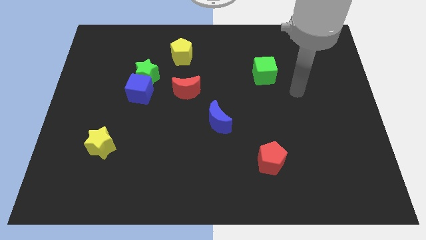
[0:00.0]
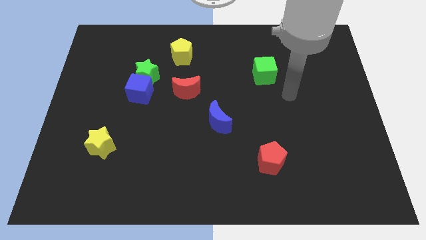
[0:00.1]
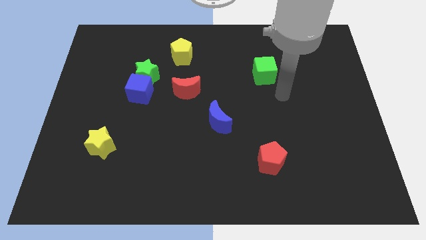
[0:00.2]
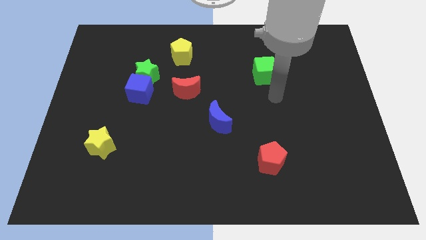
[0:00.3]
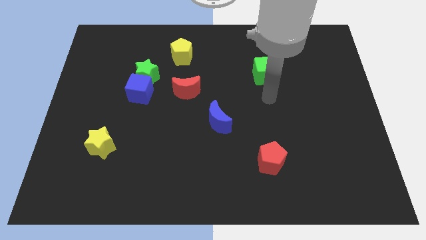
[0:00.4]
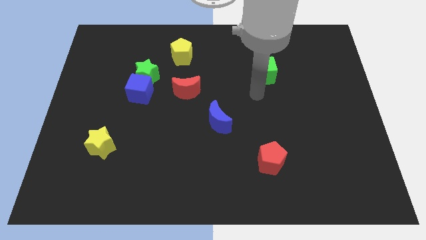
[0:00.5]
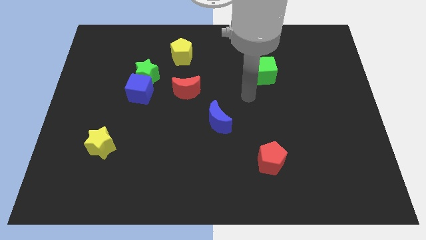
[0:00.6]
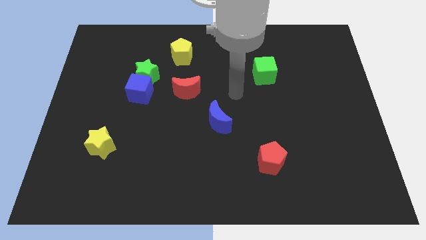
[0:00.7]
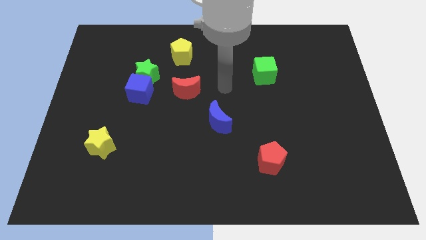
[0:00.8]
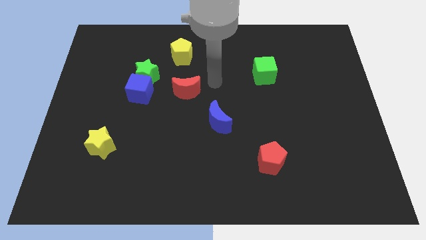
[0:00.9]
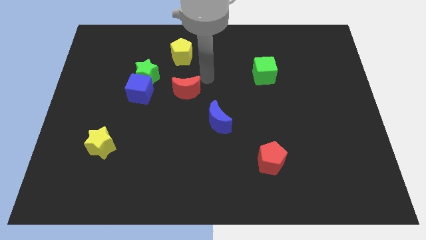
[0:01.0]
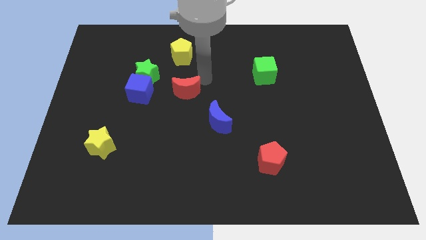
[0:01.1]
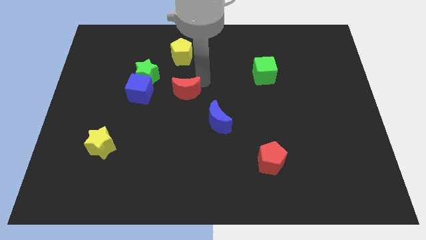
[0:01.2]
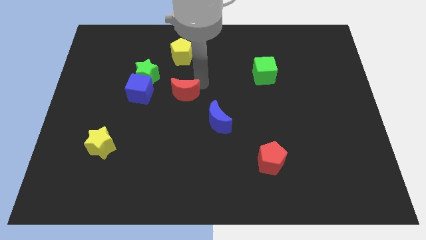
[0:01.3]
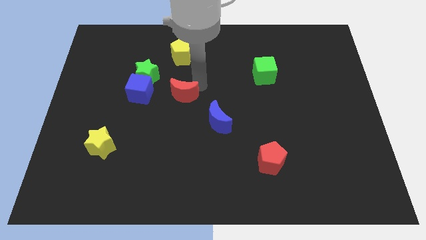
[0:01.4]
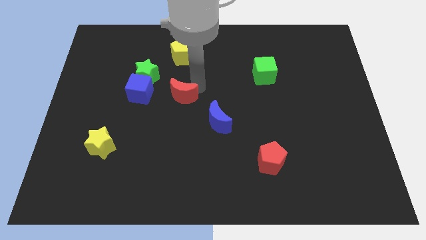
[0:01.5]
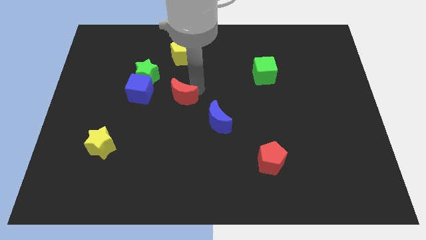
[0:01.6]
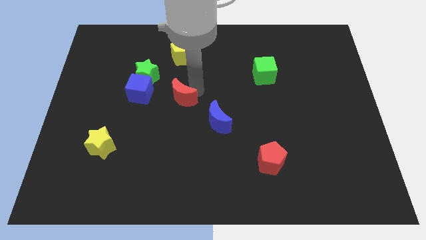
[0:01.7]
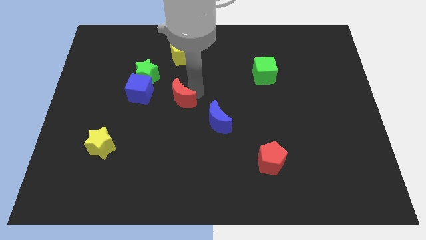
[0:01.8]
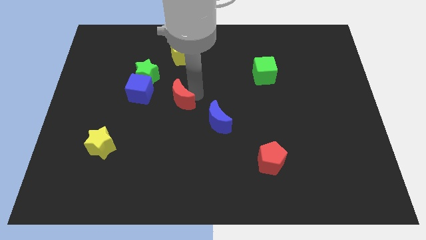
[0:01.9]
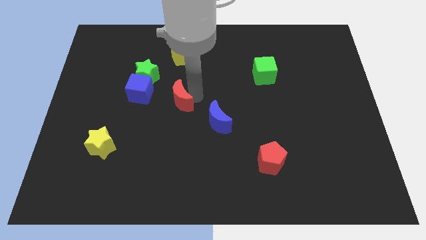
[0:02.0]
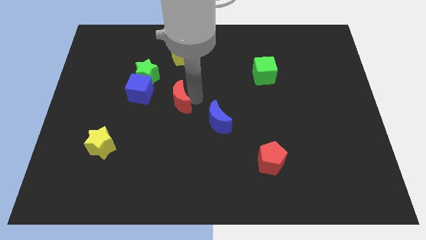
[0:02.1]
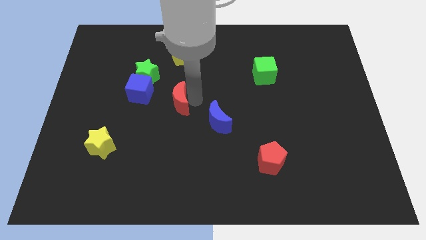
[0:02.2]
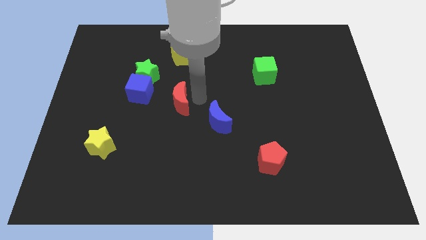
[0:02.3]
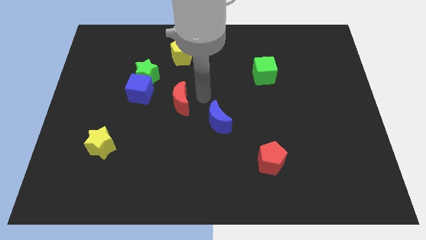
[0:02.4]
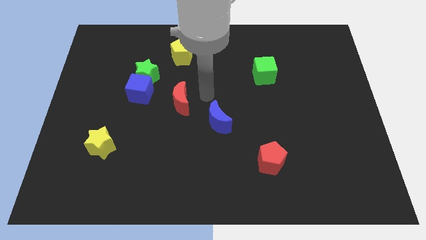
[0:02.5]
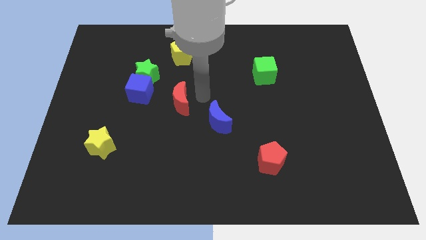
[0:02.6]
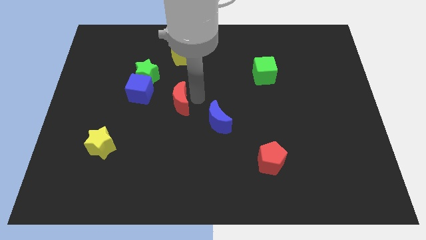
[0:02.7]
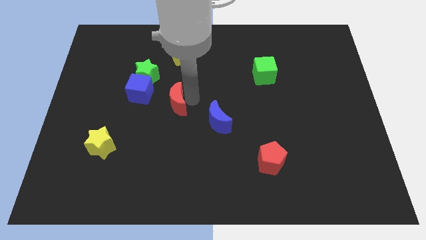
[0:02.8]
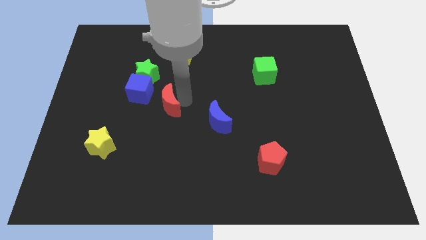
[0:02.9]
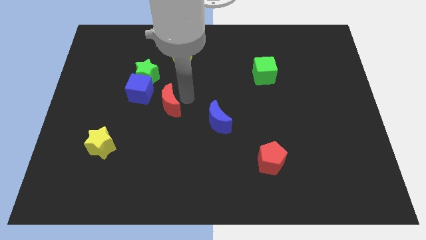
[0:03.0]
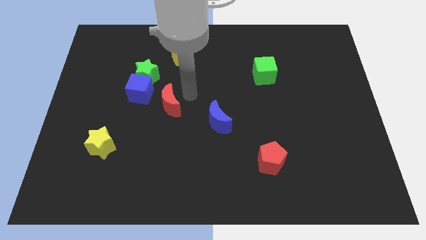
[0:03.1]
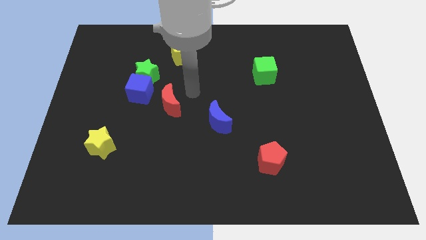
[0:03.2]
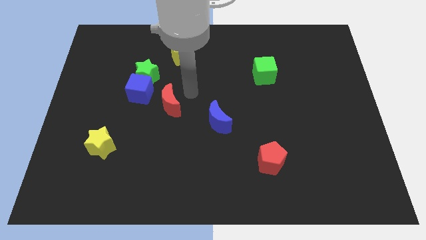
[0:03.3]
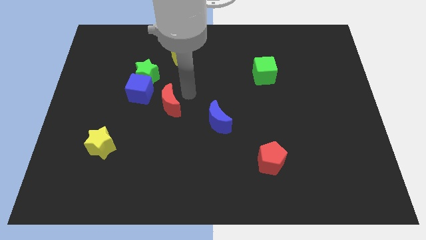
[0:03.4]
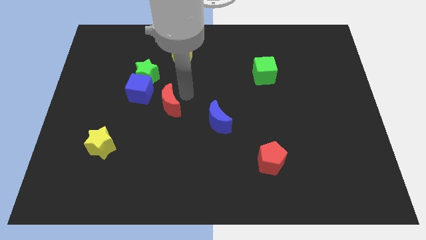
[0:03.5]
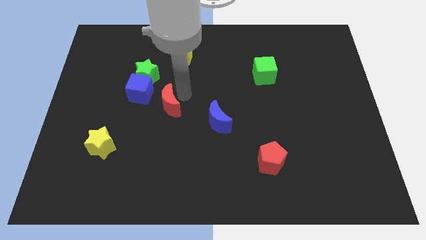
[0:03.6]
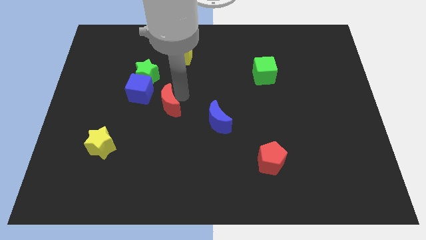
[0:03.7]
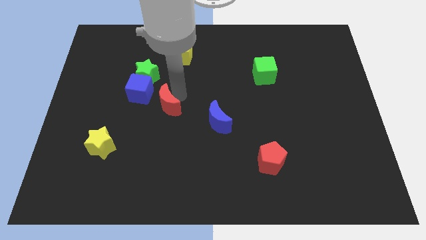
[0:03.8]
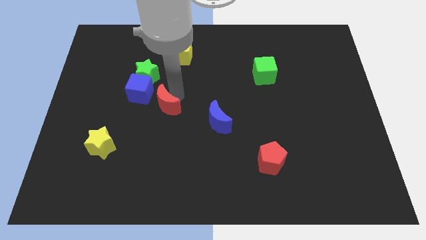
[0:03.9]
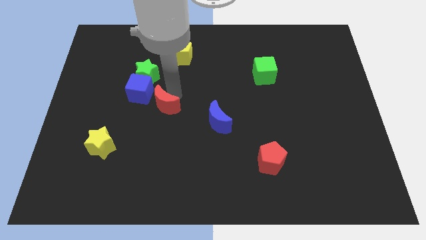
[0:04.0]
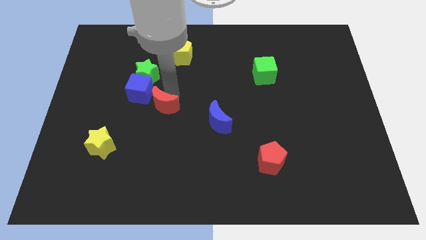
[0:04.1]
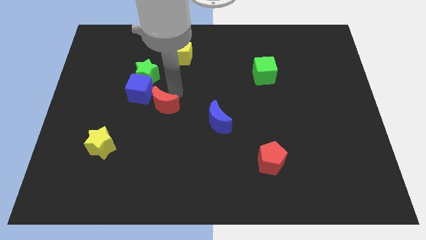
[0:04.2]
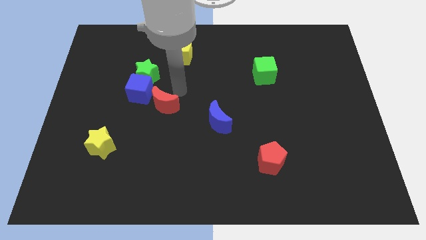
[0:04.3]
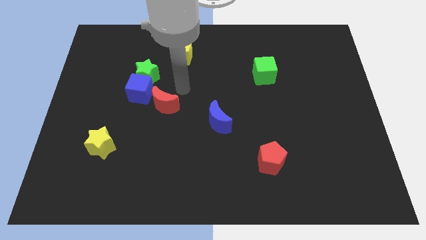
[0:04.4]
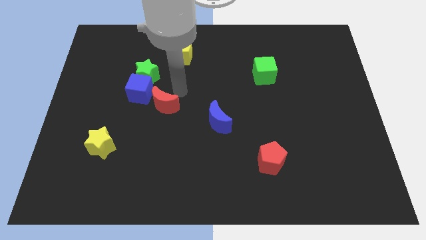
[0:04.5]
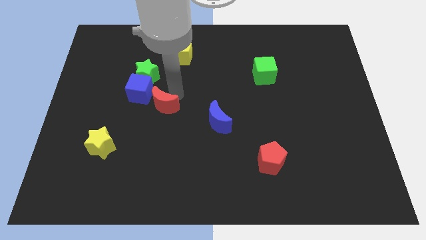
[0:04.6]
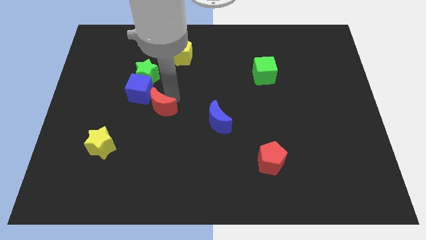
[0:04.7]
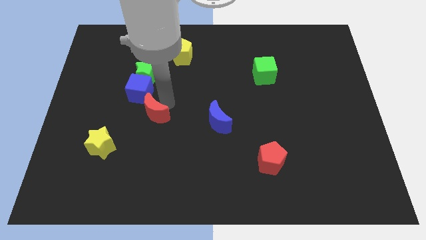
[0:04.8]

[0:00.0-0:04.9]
push the red moon below the blue cube

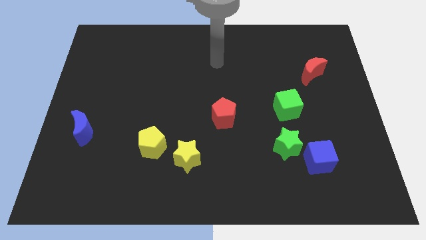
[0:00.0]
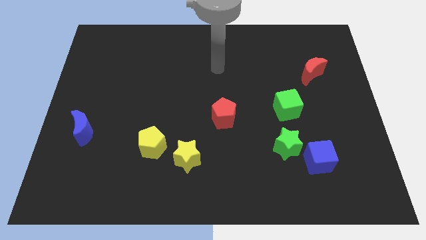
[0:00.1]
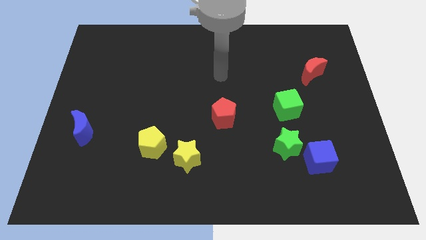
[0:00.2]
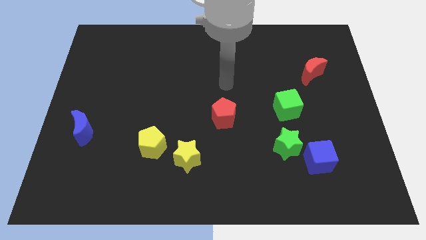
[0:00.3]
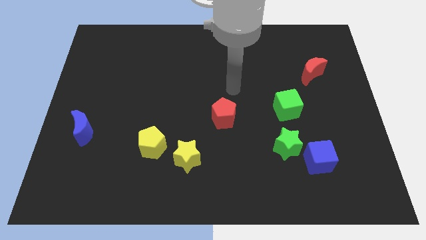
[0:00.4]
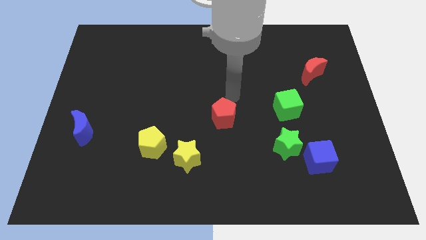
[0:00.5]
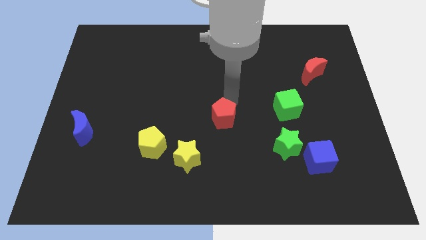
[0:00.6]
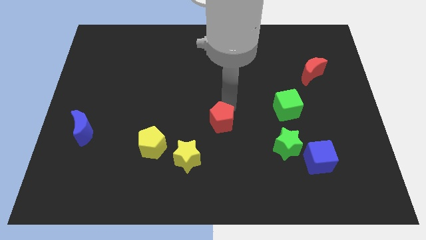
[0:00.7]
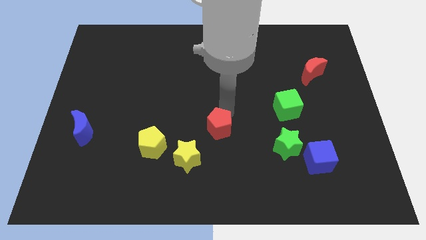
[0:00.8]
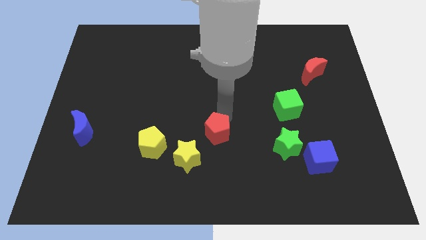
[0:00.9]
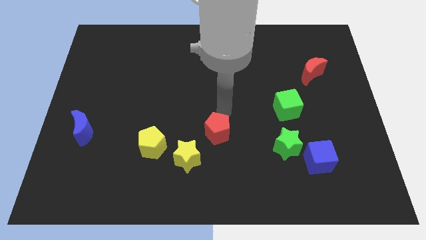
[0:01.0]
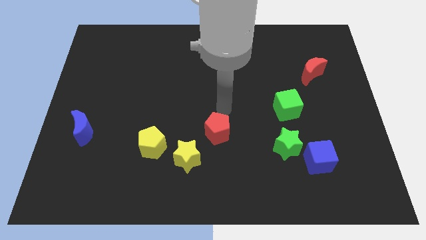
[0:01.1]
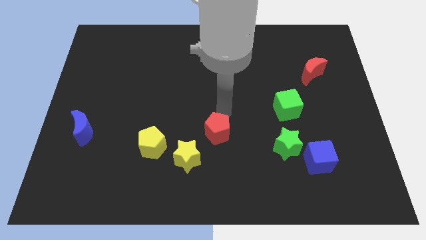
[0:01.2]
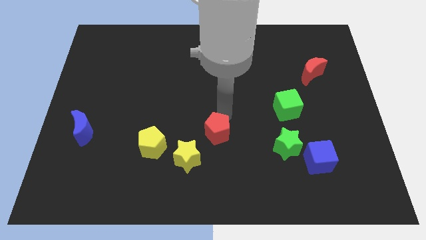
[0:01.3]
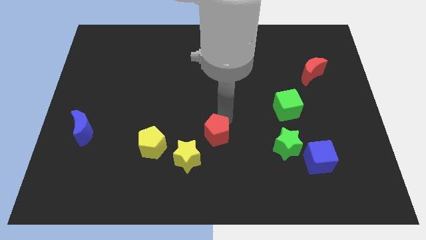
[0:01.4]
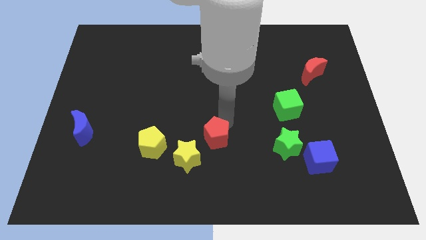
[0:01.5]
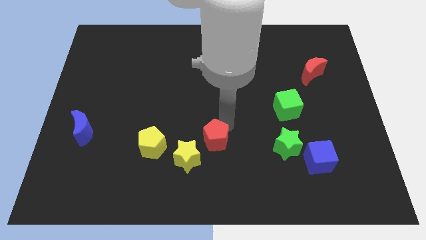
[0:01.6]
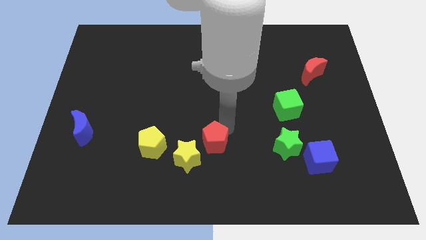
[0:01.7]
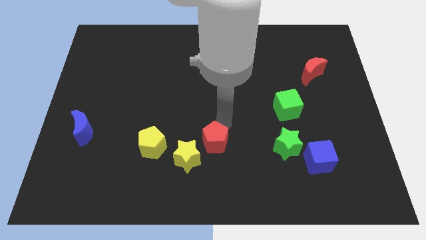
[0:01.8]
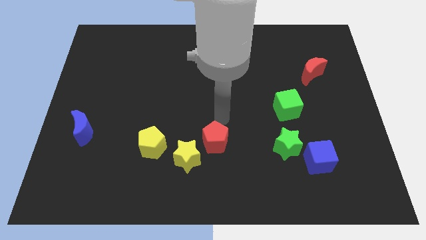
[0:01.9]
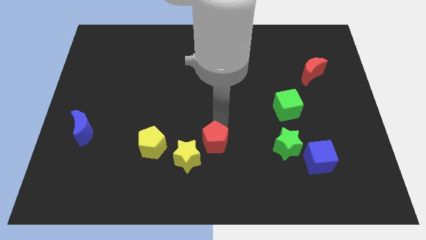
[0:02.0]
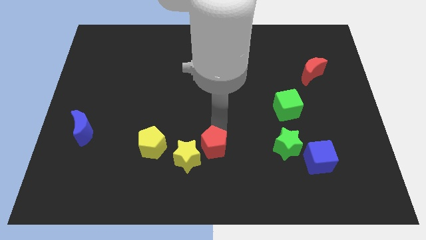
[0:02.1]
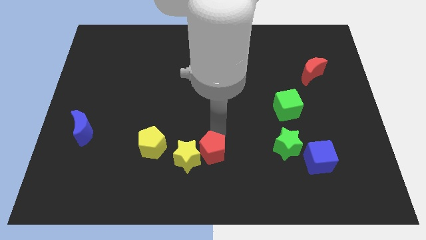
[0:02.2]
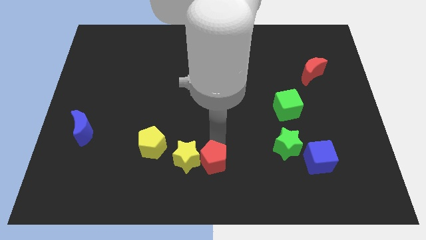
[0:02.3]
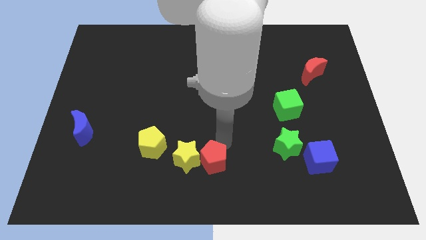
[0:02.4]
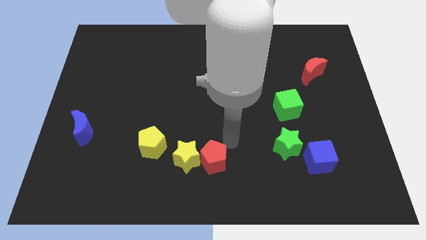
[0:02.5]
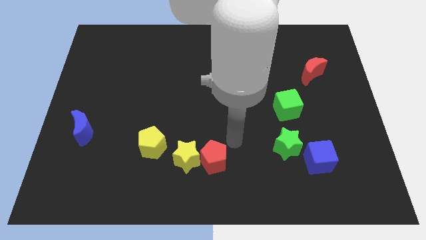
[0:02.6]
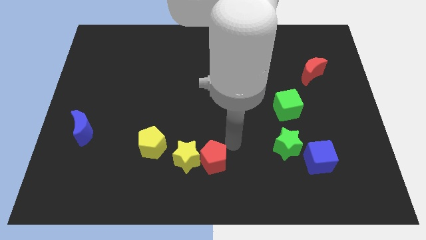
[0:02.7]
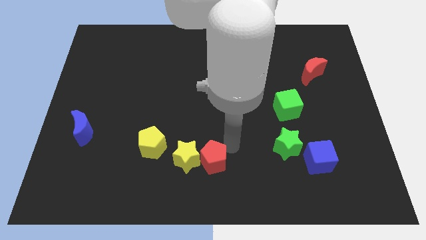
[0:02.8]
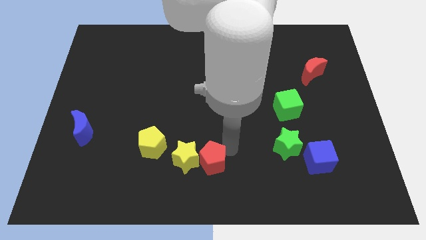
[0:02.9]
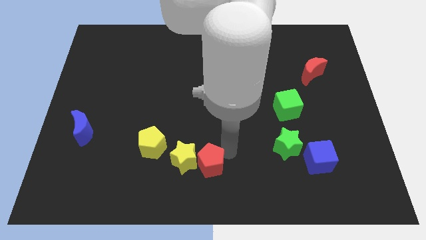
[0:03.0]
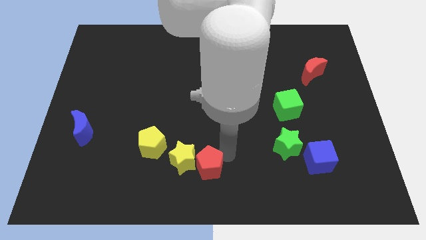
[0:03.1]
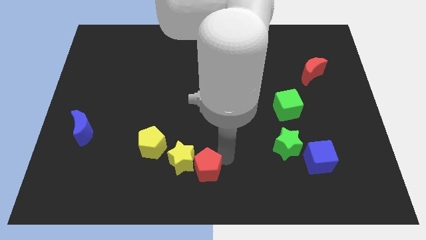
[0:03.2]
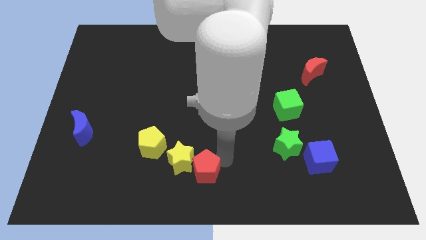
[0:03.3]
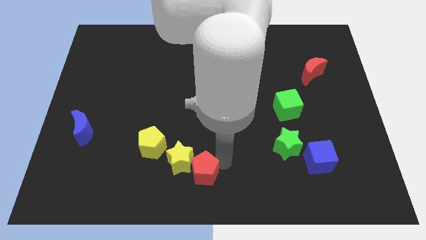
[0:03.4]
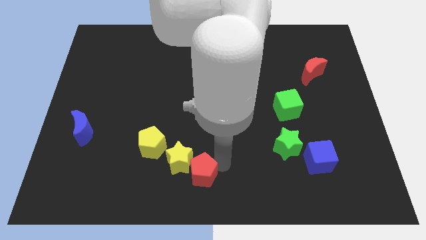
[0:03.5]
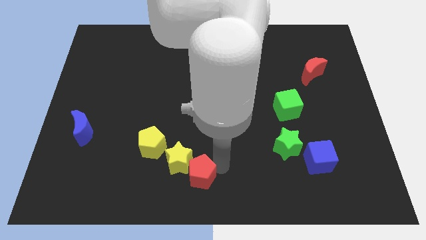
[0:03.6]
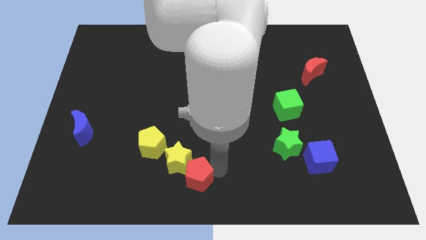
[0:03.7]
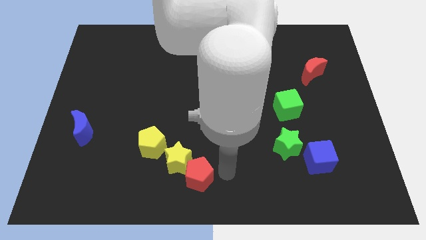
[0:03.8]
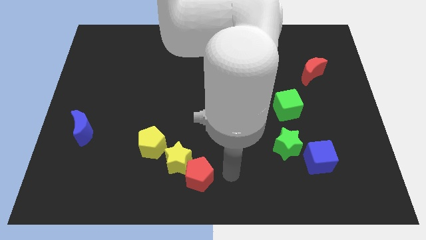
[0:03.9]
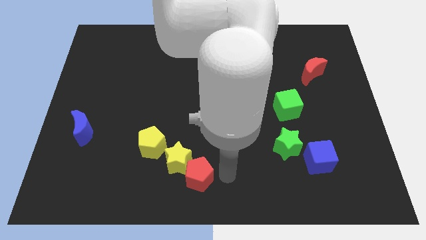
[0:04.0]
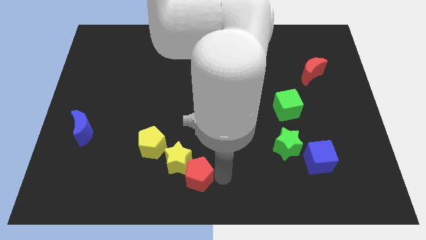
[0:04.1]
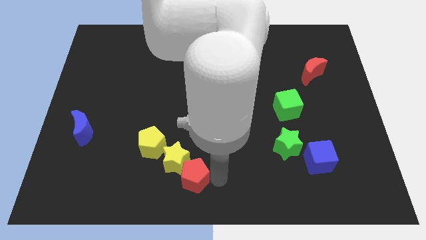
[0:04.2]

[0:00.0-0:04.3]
push the red pentagon to the bottom right of the yellow pentagon
